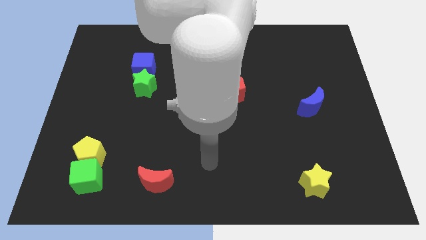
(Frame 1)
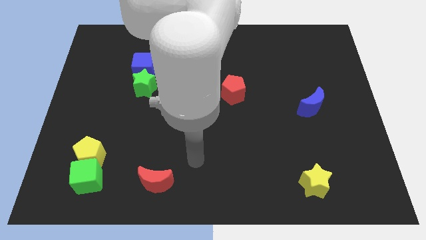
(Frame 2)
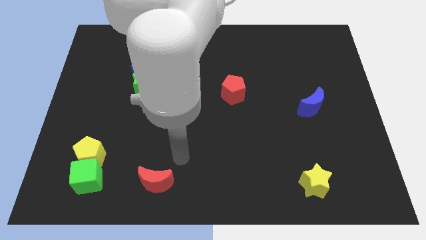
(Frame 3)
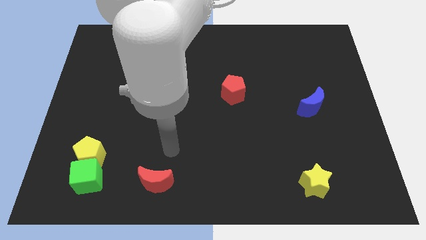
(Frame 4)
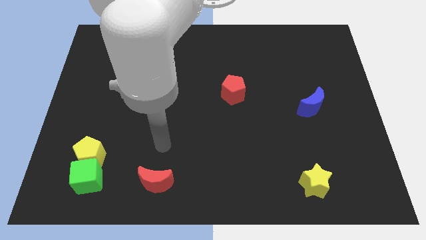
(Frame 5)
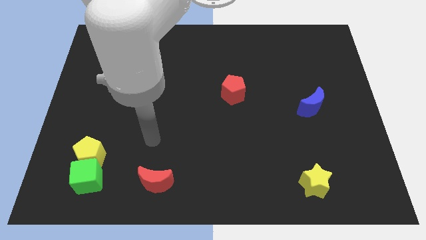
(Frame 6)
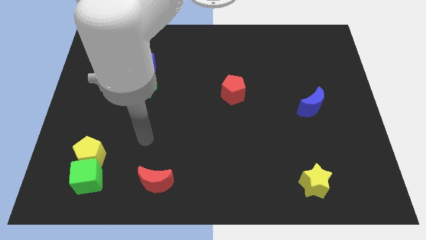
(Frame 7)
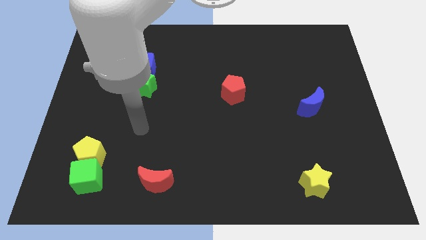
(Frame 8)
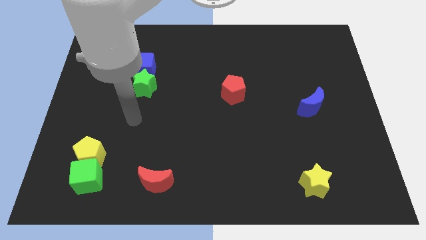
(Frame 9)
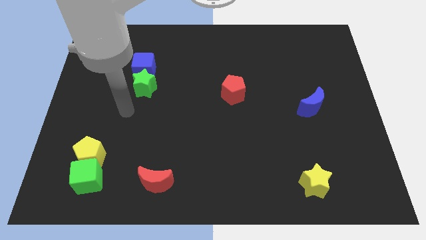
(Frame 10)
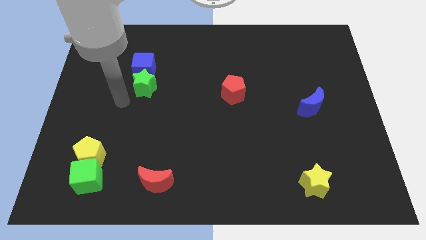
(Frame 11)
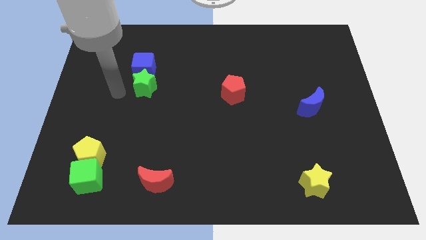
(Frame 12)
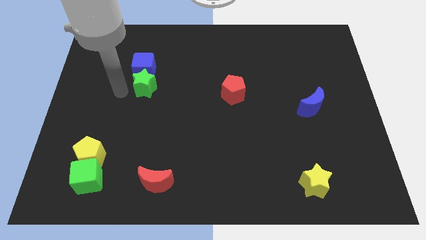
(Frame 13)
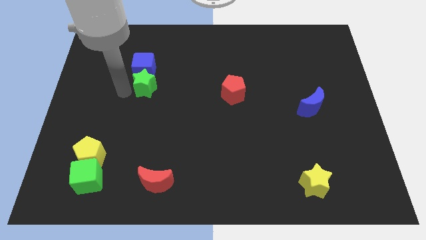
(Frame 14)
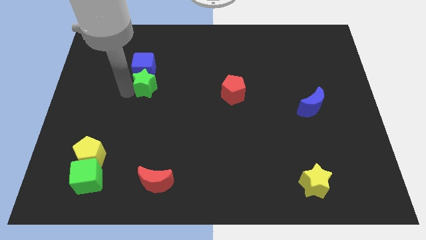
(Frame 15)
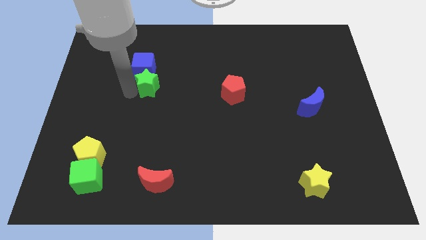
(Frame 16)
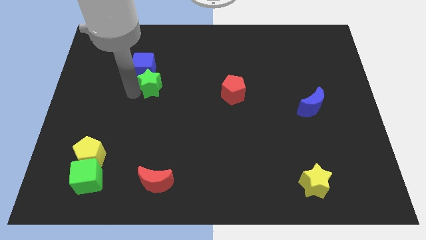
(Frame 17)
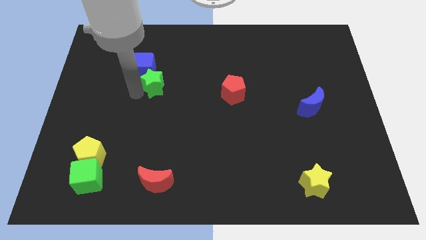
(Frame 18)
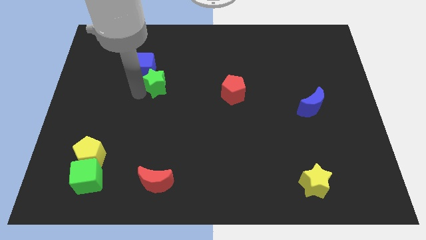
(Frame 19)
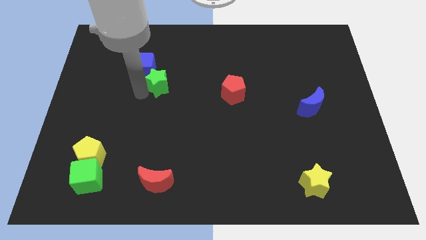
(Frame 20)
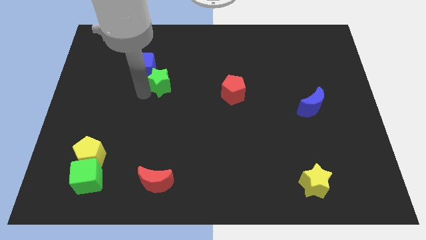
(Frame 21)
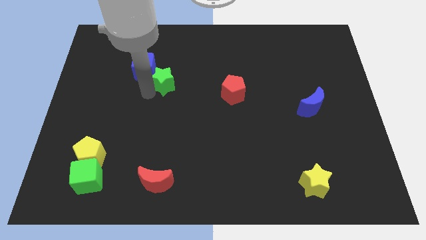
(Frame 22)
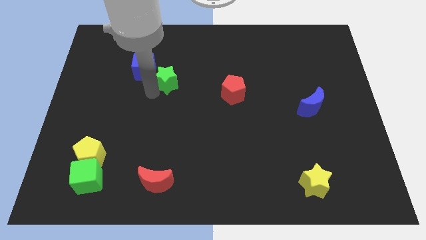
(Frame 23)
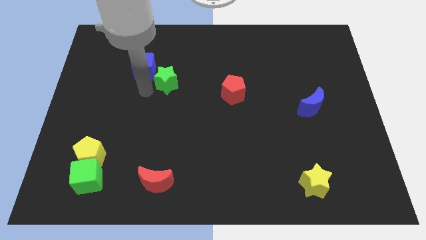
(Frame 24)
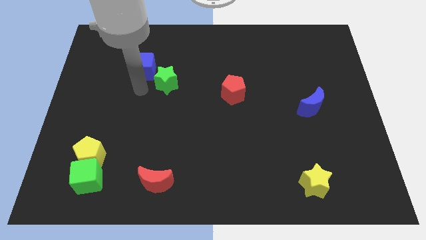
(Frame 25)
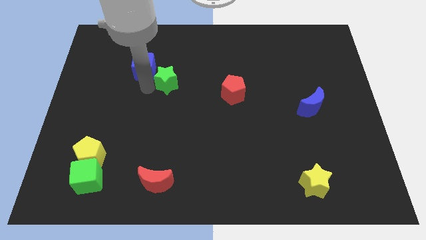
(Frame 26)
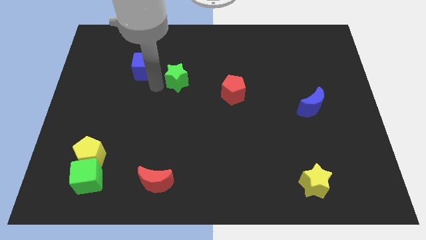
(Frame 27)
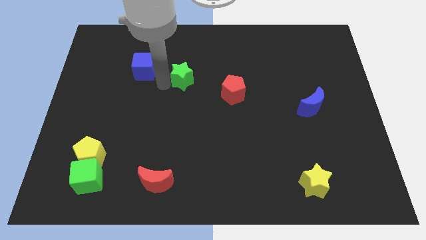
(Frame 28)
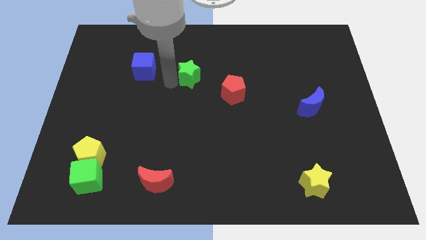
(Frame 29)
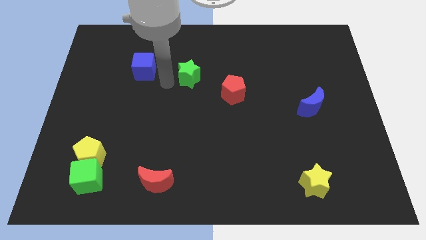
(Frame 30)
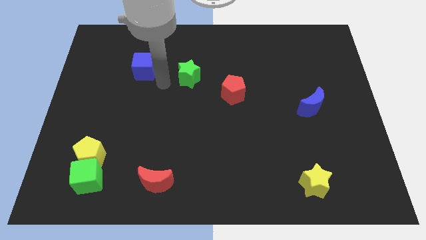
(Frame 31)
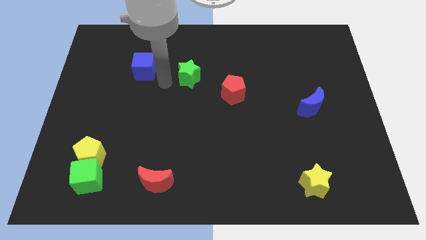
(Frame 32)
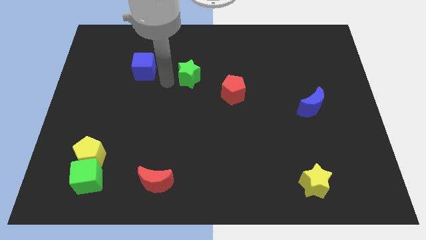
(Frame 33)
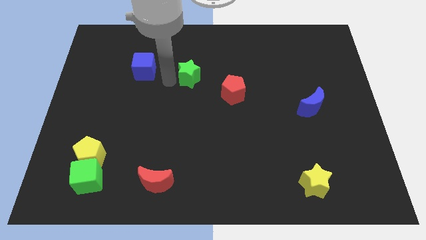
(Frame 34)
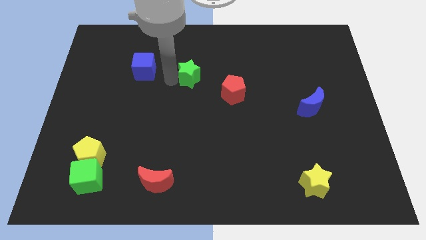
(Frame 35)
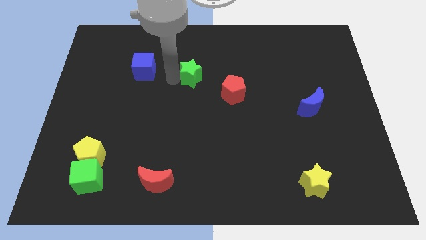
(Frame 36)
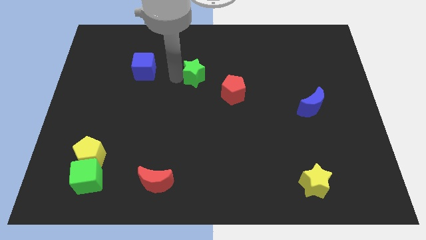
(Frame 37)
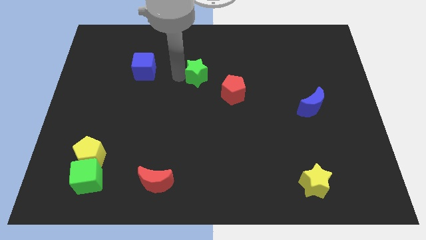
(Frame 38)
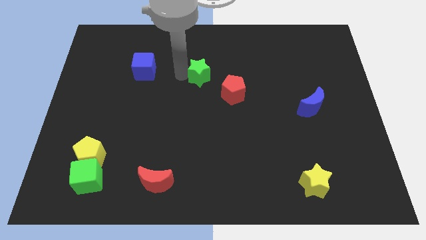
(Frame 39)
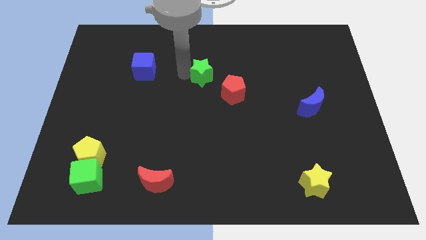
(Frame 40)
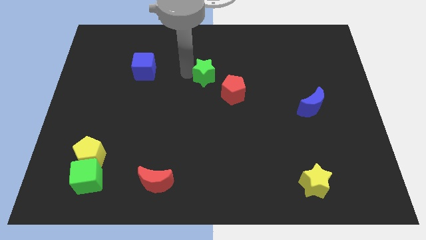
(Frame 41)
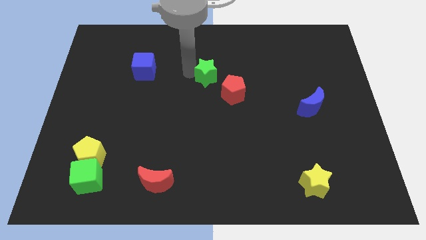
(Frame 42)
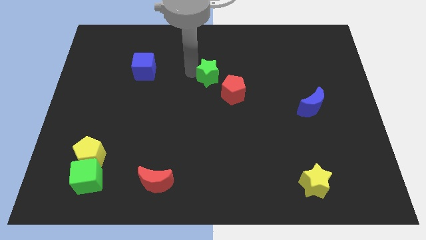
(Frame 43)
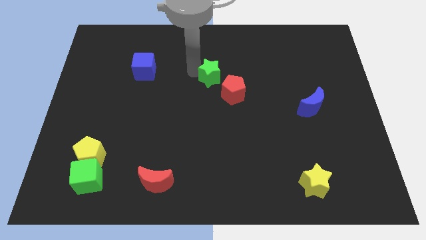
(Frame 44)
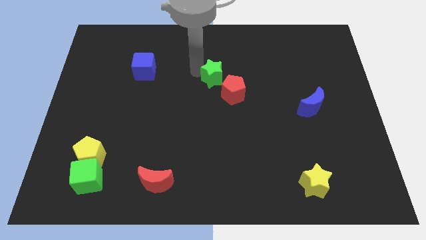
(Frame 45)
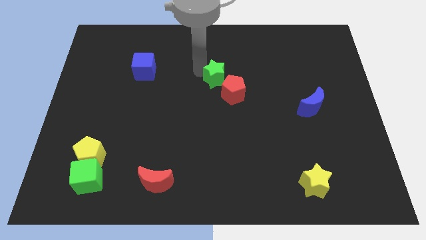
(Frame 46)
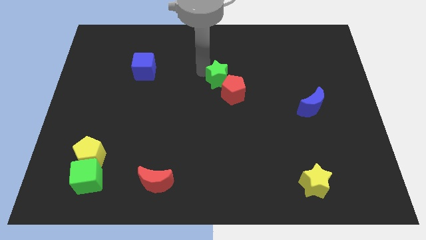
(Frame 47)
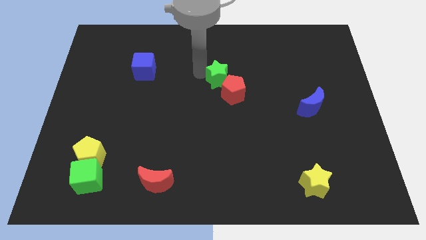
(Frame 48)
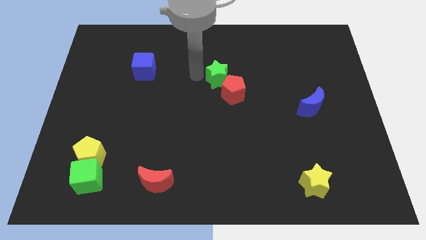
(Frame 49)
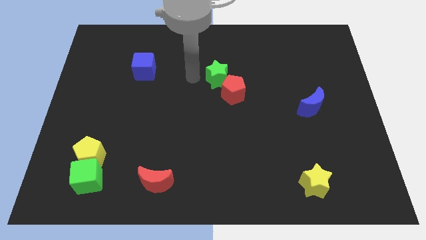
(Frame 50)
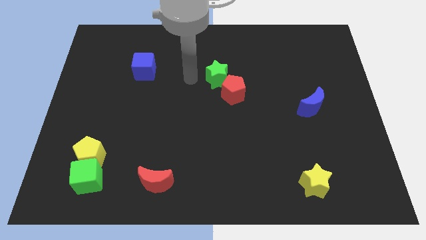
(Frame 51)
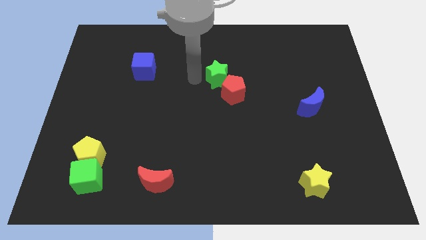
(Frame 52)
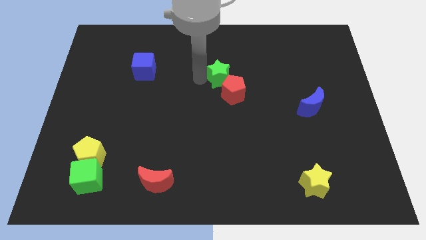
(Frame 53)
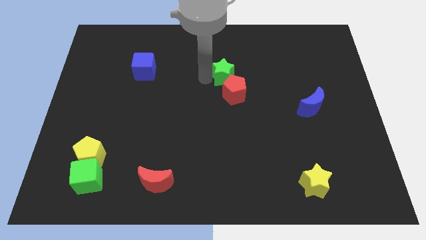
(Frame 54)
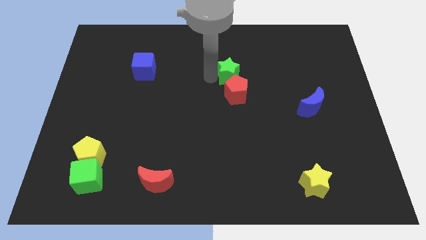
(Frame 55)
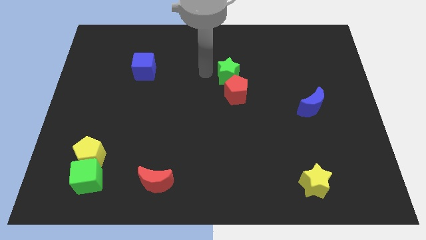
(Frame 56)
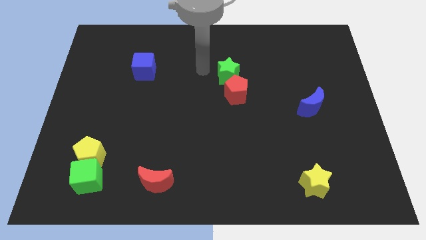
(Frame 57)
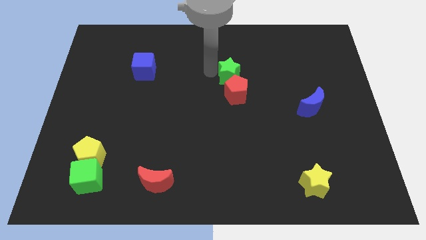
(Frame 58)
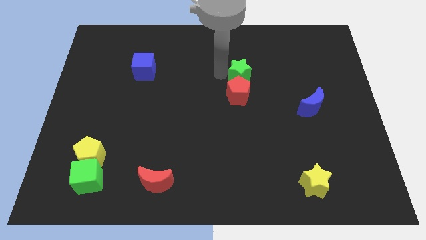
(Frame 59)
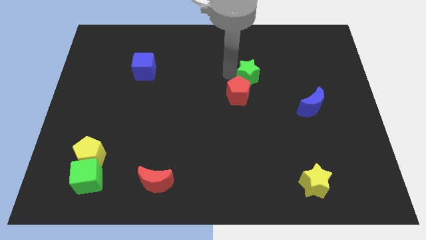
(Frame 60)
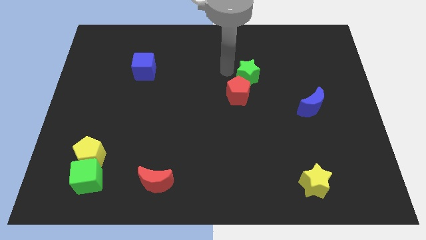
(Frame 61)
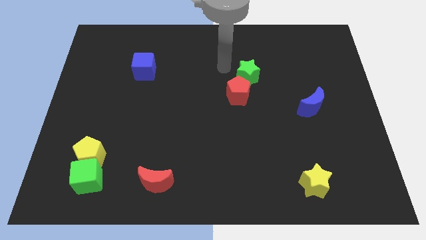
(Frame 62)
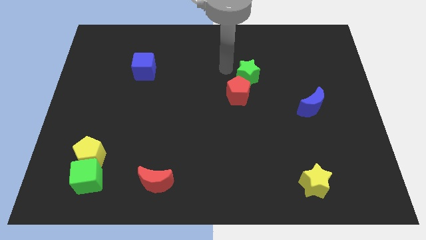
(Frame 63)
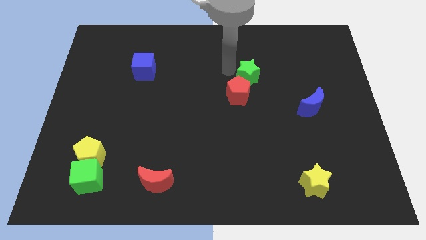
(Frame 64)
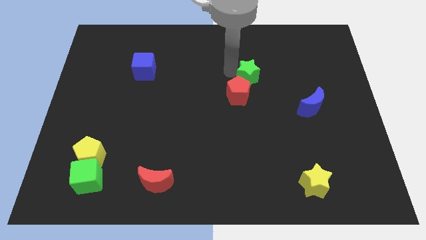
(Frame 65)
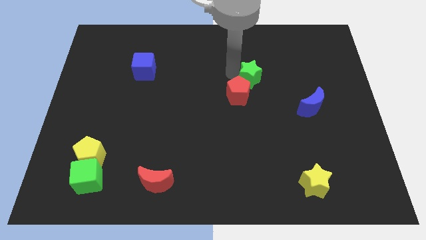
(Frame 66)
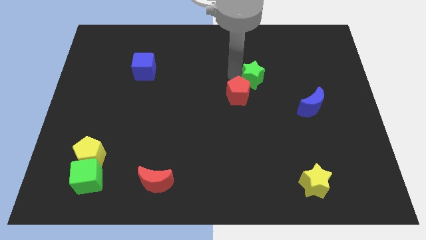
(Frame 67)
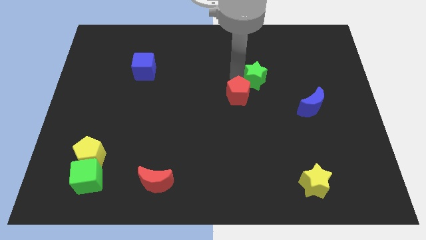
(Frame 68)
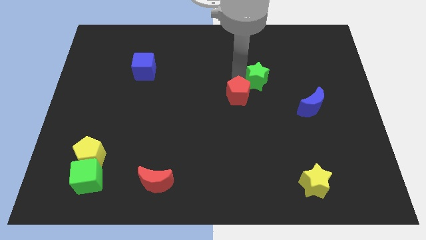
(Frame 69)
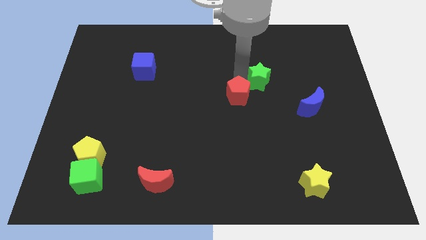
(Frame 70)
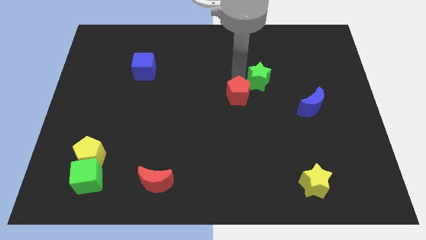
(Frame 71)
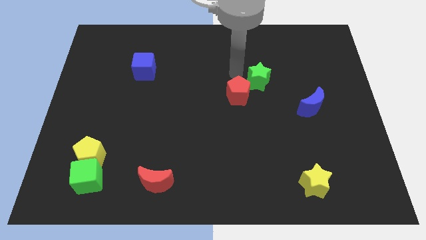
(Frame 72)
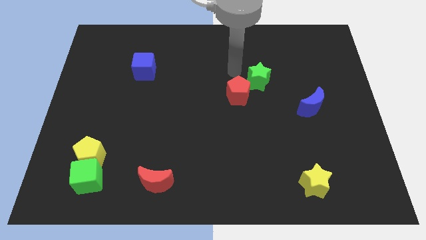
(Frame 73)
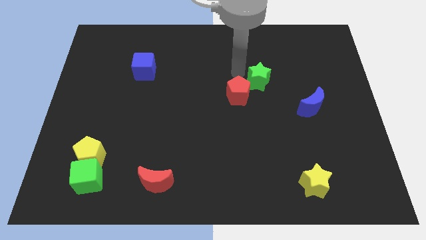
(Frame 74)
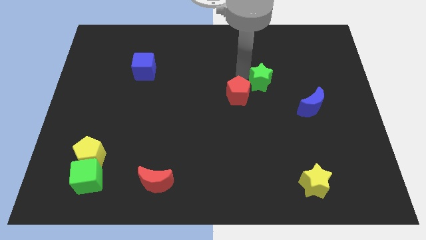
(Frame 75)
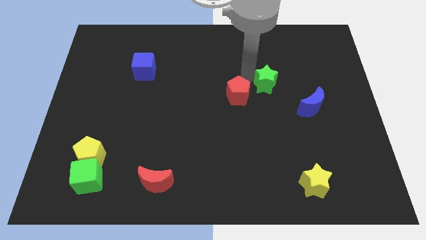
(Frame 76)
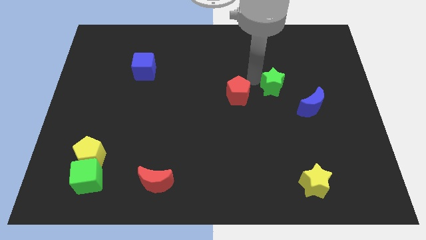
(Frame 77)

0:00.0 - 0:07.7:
put the green star diagonally up and to the left of the blue moon

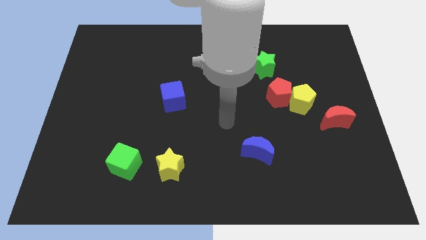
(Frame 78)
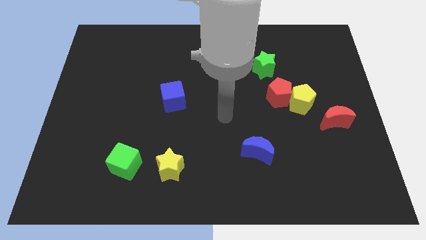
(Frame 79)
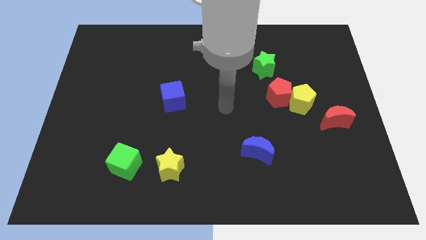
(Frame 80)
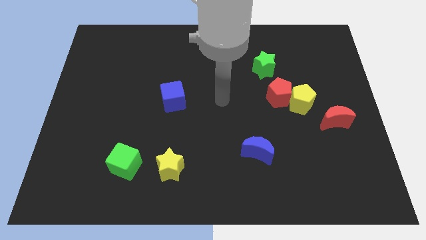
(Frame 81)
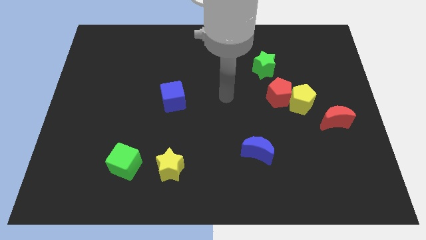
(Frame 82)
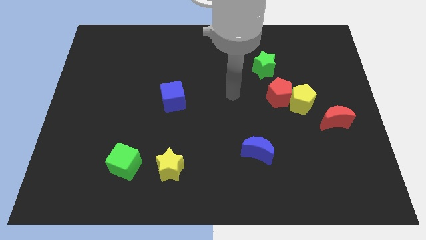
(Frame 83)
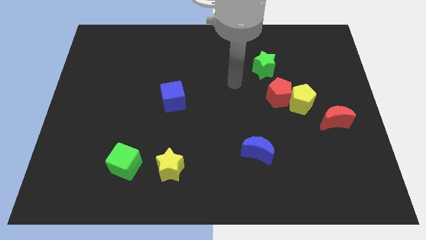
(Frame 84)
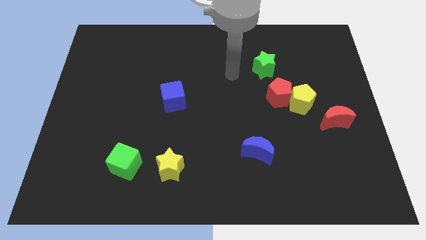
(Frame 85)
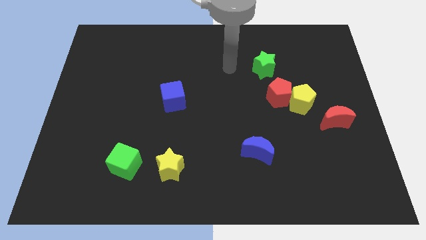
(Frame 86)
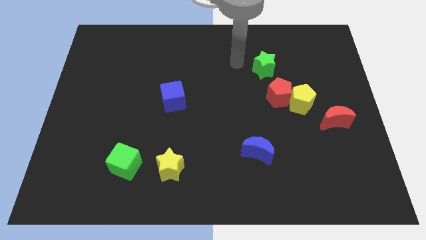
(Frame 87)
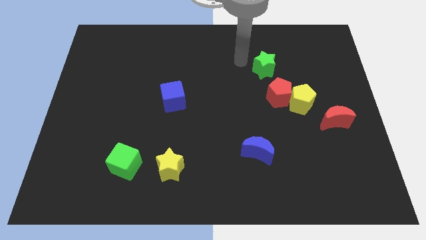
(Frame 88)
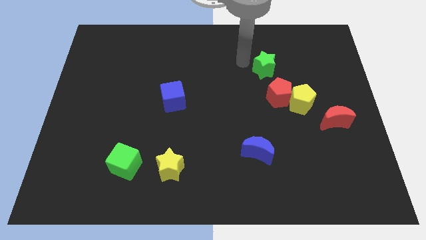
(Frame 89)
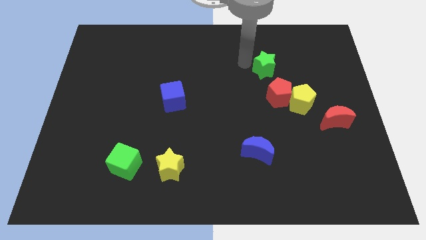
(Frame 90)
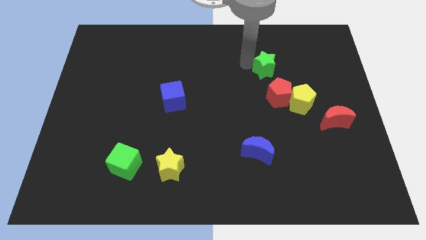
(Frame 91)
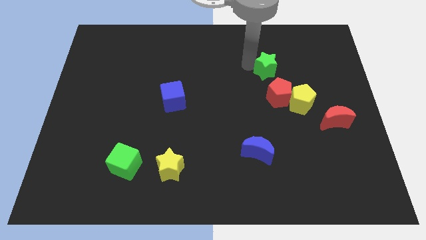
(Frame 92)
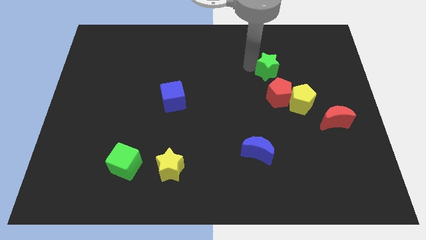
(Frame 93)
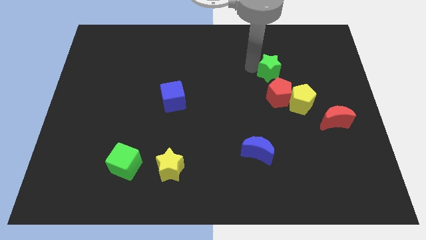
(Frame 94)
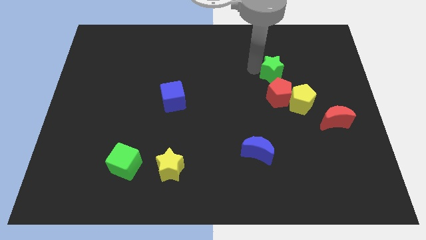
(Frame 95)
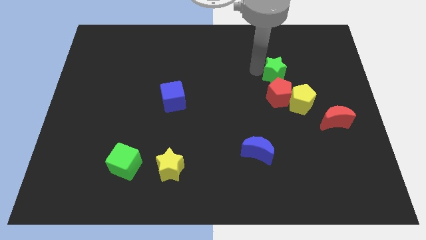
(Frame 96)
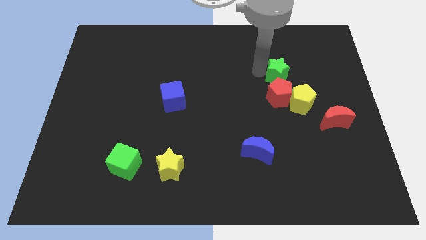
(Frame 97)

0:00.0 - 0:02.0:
put the green star to the top of the yellow pentagon
